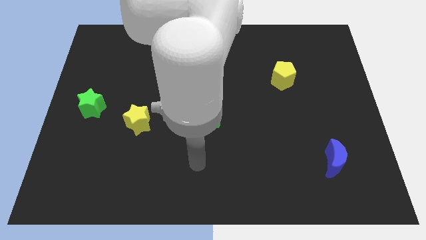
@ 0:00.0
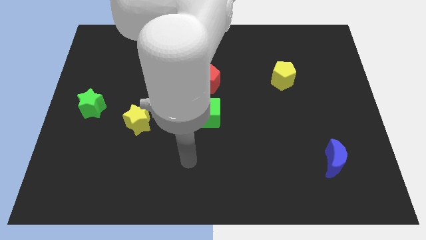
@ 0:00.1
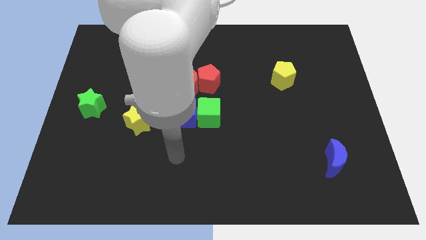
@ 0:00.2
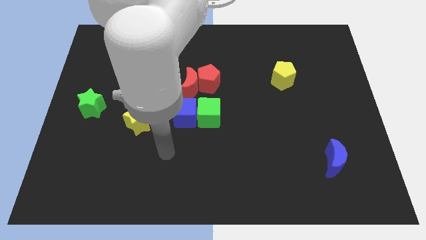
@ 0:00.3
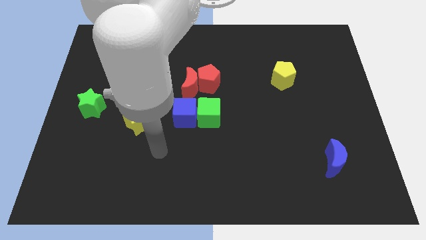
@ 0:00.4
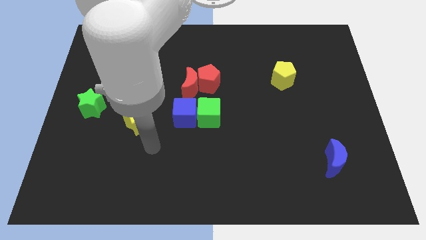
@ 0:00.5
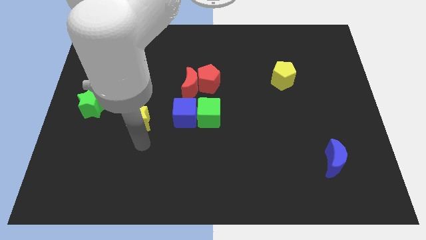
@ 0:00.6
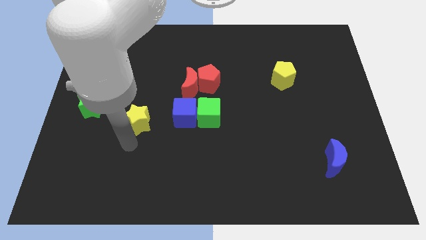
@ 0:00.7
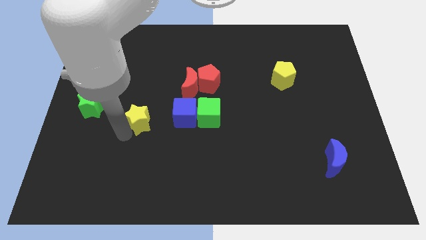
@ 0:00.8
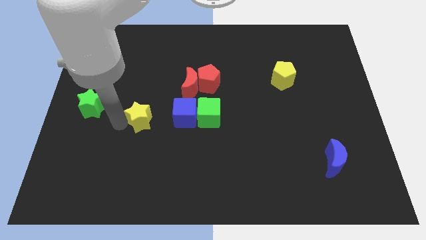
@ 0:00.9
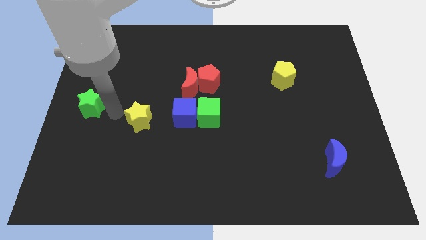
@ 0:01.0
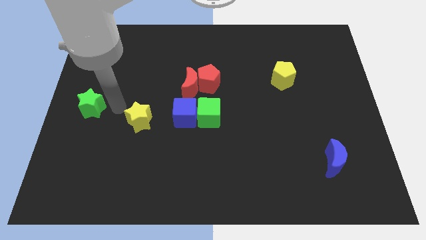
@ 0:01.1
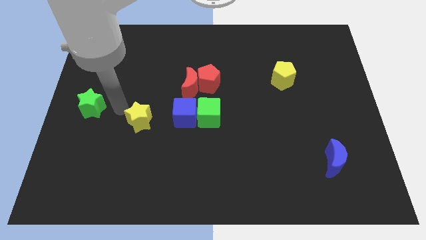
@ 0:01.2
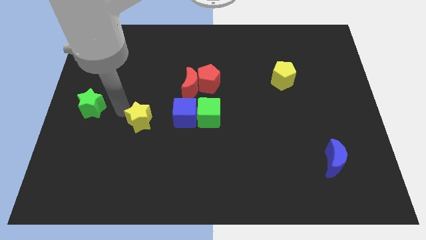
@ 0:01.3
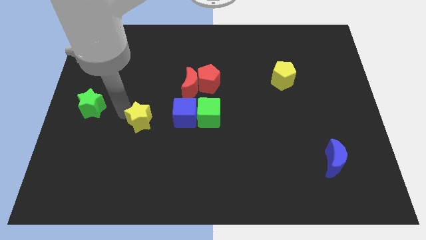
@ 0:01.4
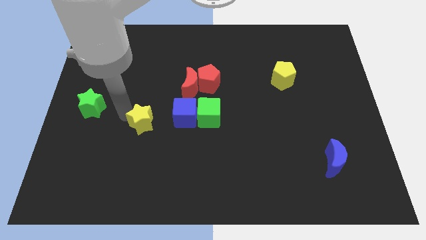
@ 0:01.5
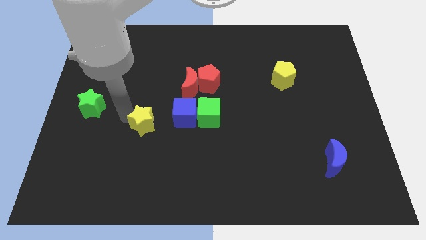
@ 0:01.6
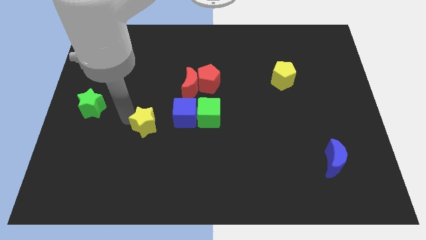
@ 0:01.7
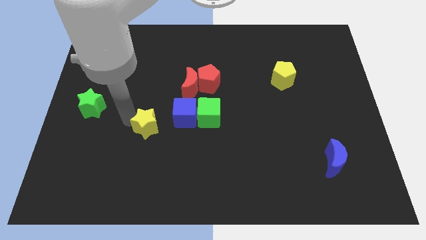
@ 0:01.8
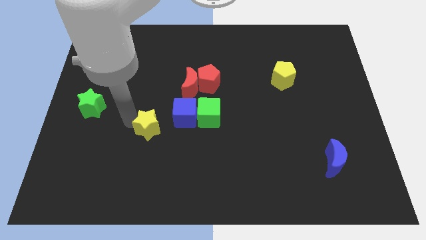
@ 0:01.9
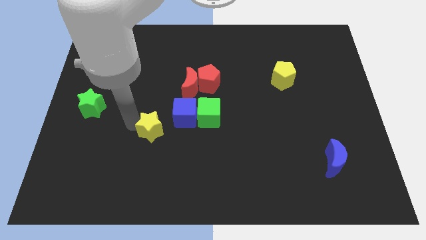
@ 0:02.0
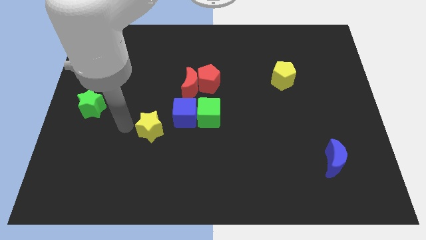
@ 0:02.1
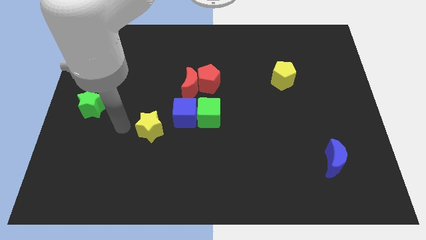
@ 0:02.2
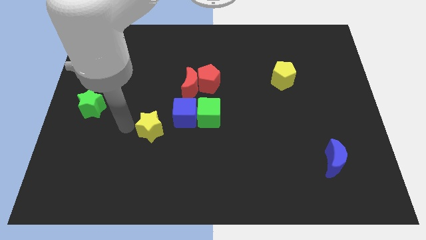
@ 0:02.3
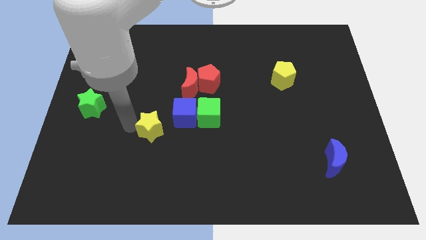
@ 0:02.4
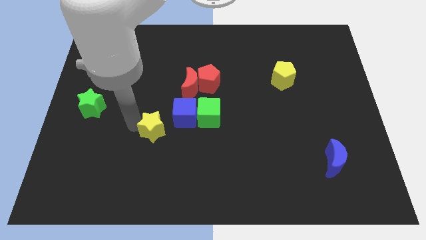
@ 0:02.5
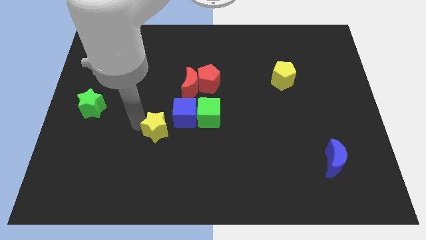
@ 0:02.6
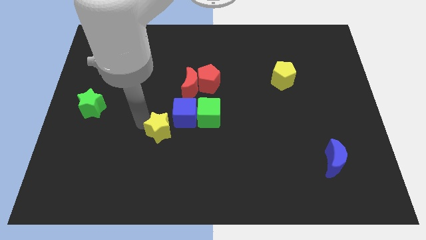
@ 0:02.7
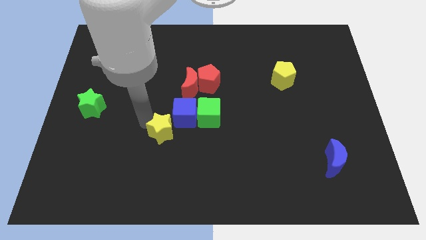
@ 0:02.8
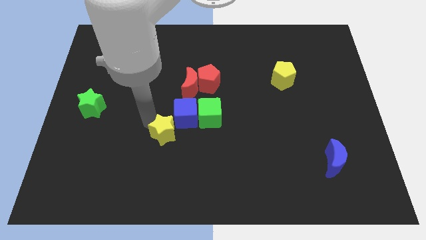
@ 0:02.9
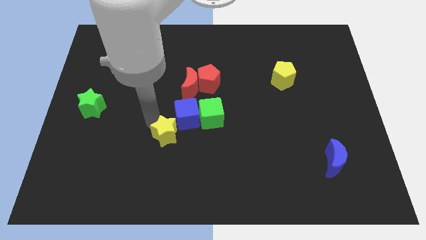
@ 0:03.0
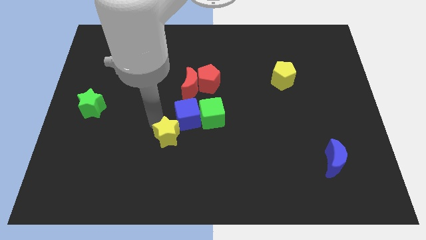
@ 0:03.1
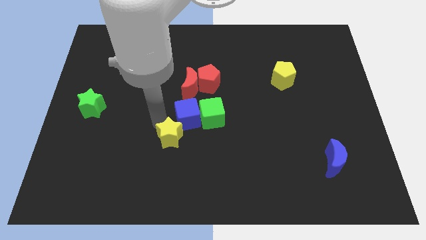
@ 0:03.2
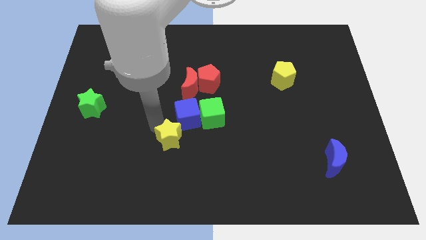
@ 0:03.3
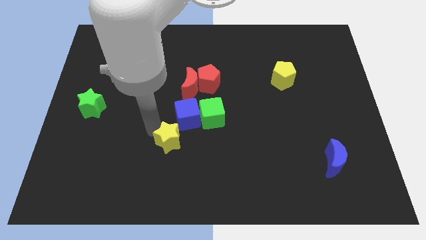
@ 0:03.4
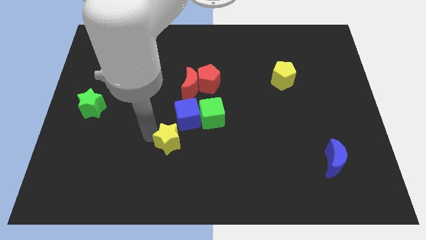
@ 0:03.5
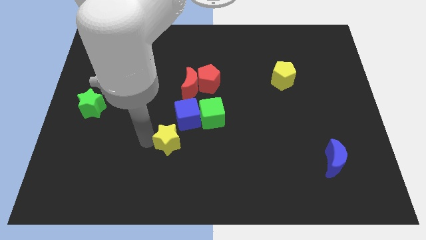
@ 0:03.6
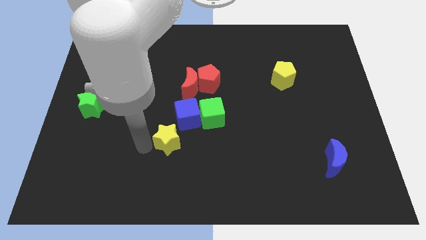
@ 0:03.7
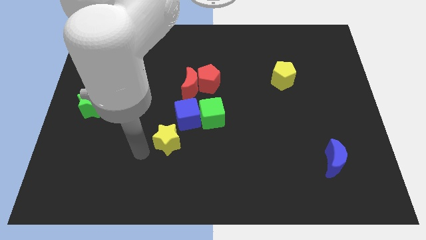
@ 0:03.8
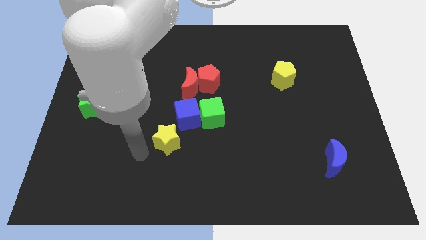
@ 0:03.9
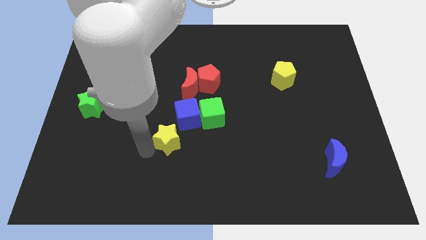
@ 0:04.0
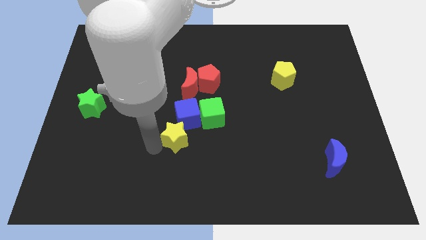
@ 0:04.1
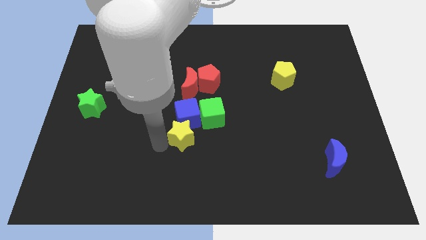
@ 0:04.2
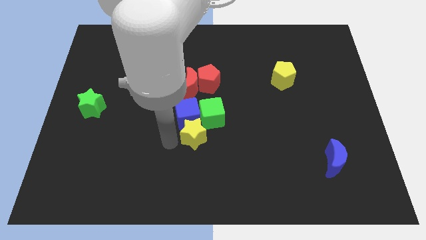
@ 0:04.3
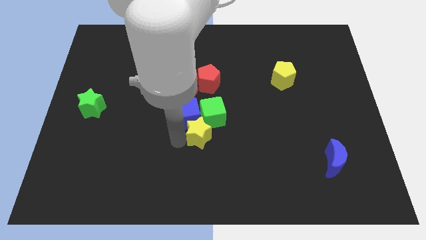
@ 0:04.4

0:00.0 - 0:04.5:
put the yellow star to the green cube

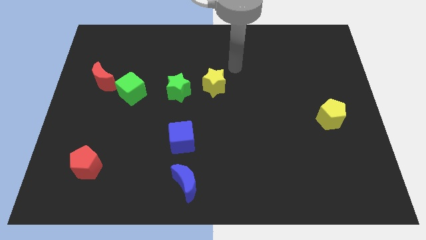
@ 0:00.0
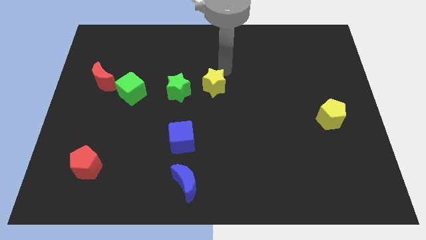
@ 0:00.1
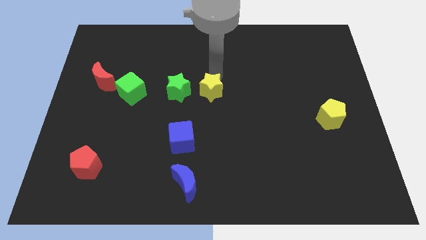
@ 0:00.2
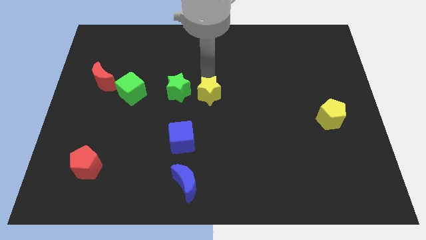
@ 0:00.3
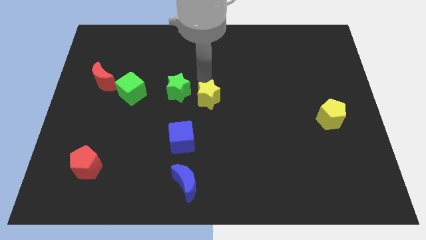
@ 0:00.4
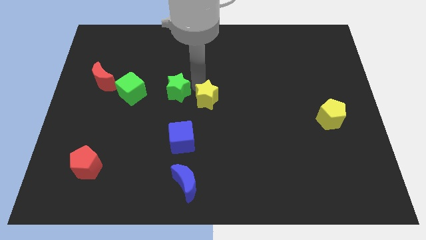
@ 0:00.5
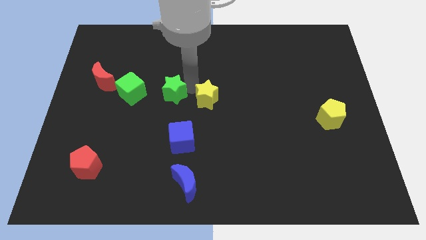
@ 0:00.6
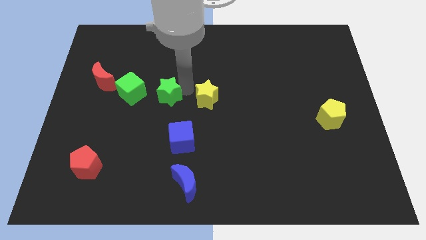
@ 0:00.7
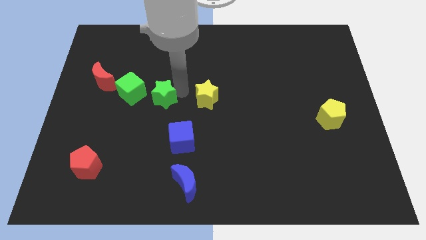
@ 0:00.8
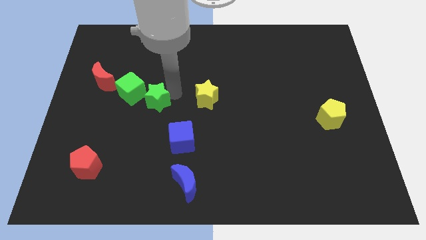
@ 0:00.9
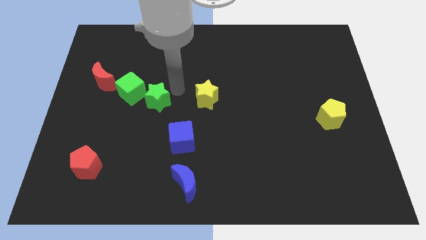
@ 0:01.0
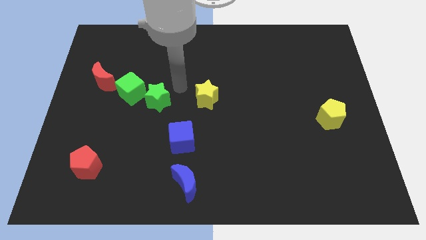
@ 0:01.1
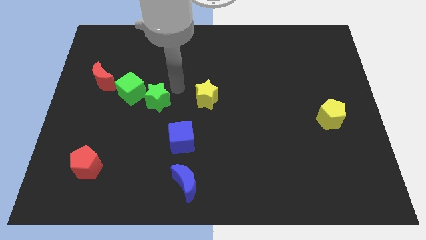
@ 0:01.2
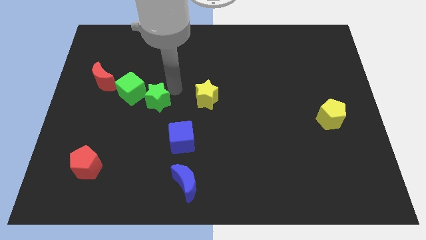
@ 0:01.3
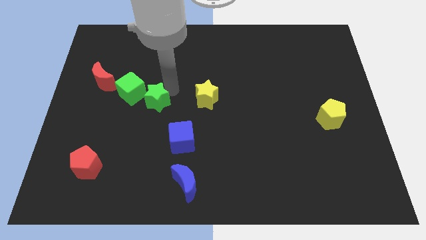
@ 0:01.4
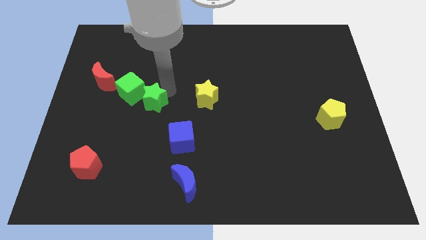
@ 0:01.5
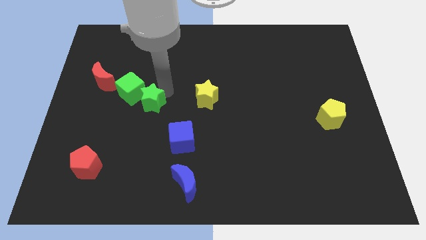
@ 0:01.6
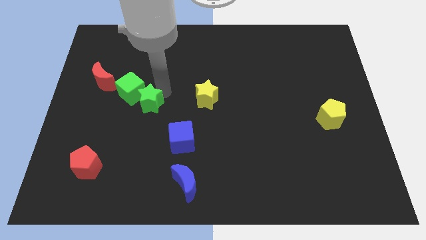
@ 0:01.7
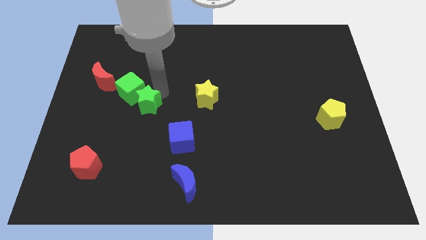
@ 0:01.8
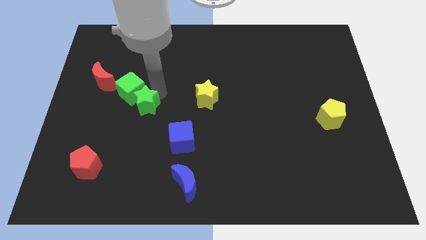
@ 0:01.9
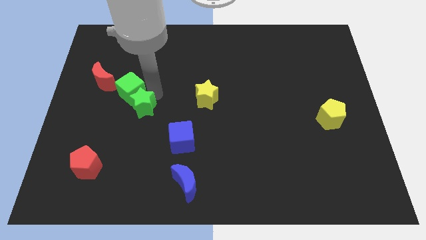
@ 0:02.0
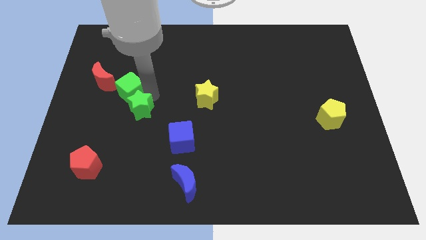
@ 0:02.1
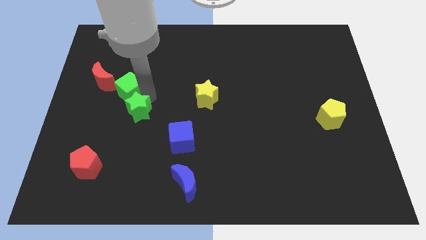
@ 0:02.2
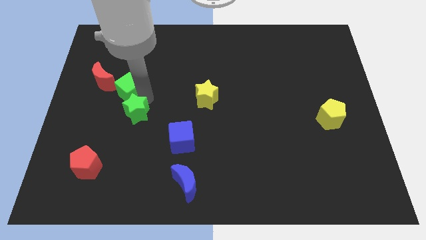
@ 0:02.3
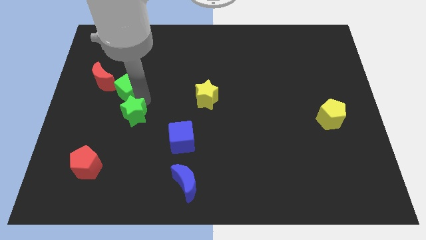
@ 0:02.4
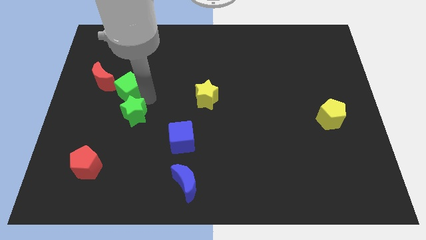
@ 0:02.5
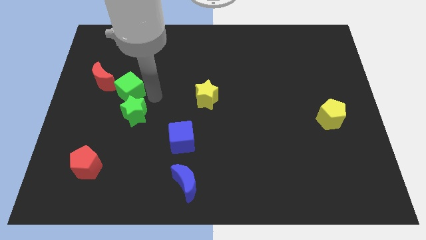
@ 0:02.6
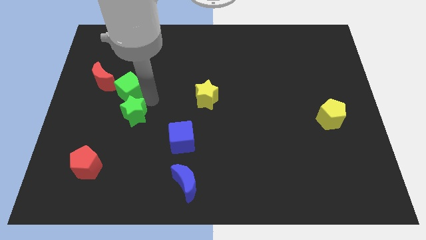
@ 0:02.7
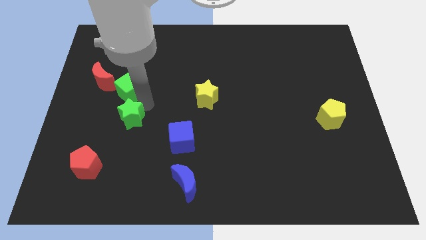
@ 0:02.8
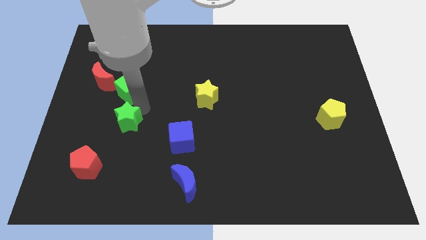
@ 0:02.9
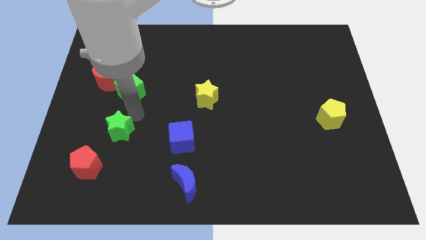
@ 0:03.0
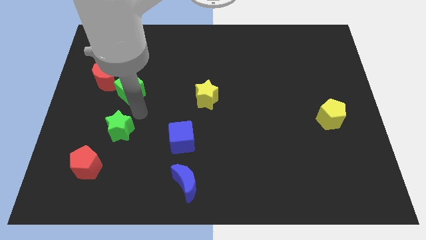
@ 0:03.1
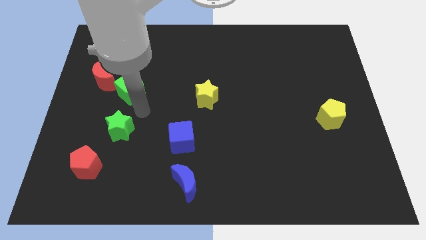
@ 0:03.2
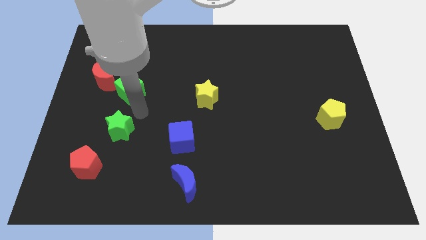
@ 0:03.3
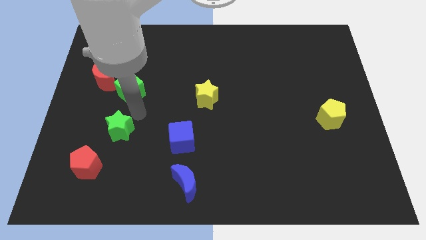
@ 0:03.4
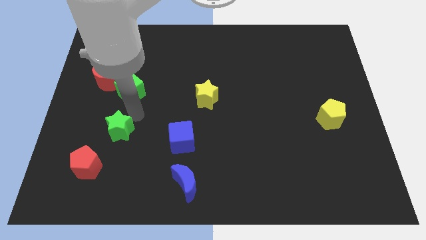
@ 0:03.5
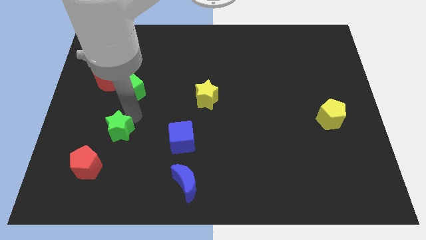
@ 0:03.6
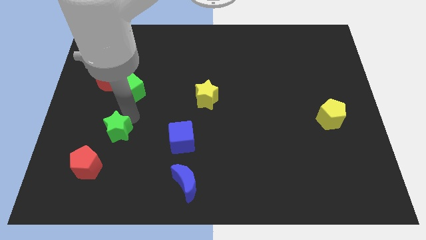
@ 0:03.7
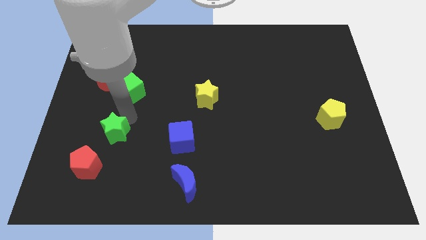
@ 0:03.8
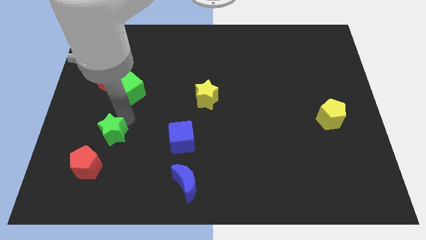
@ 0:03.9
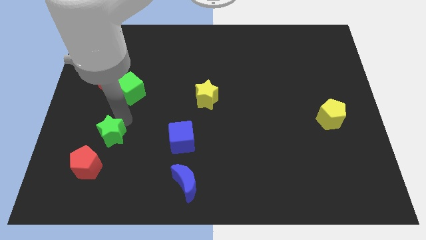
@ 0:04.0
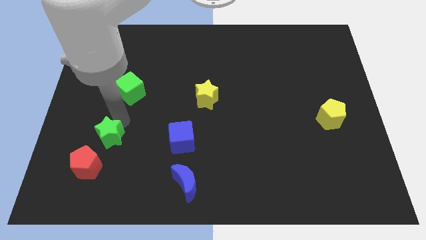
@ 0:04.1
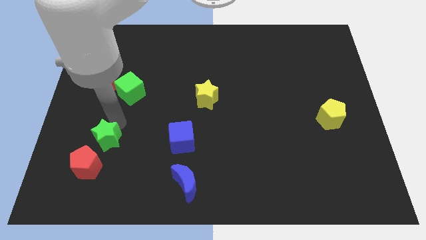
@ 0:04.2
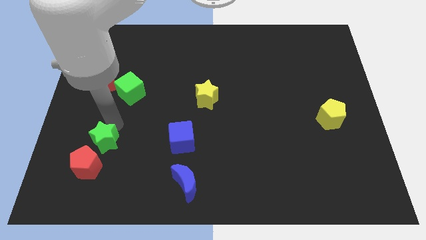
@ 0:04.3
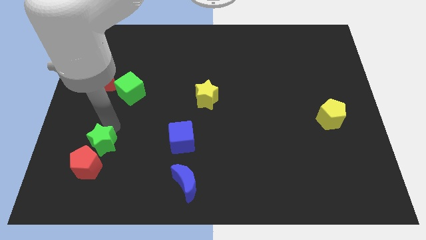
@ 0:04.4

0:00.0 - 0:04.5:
push the green star next to the red pentagon
